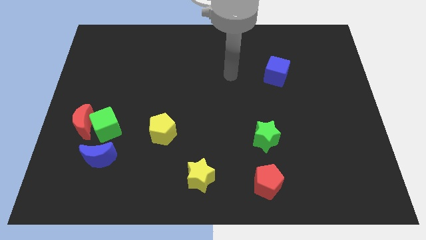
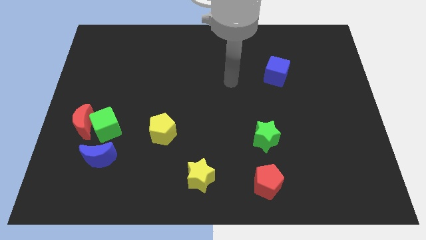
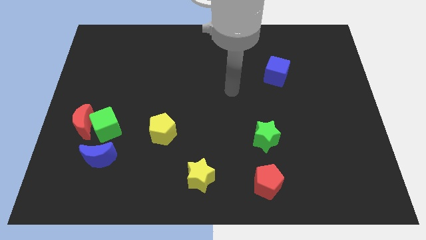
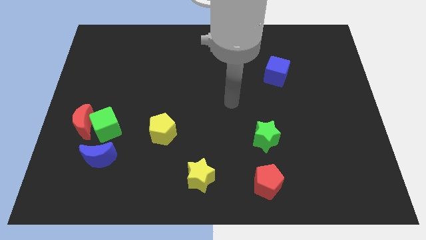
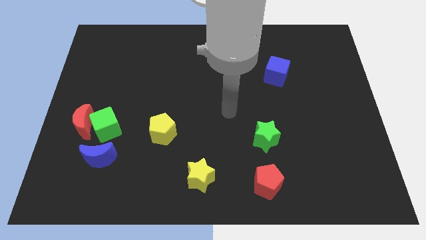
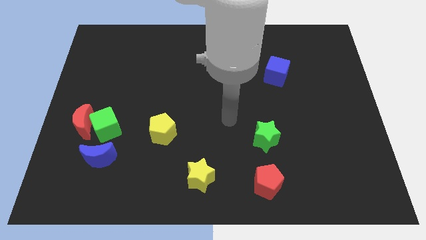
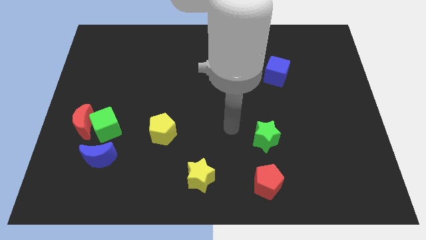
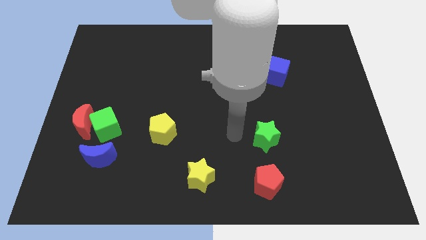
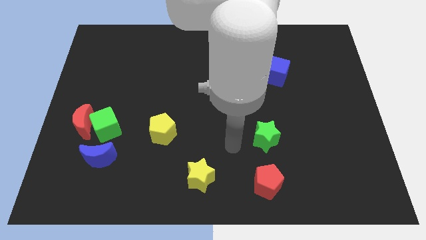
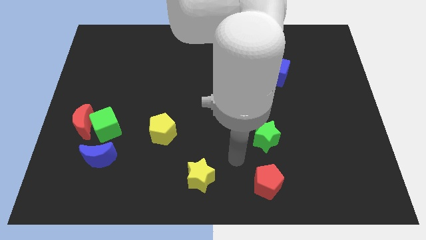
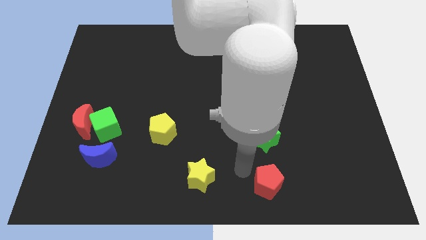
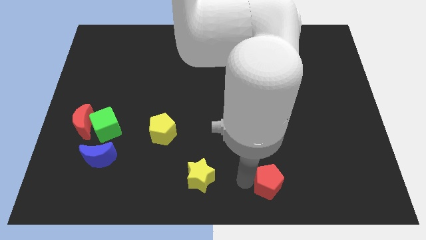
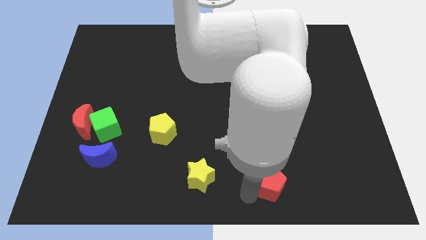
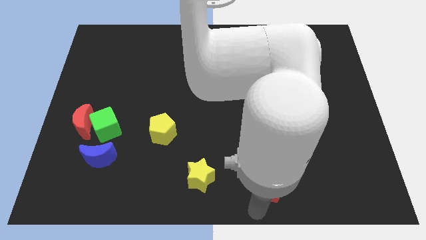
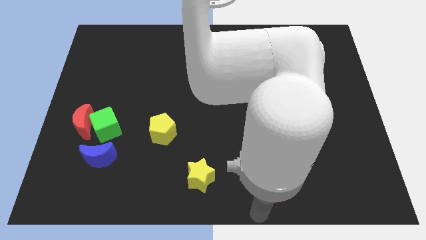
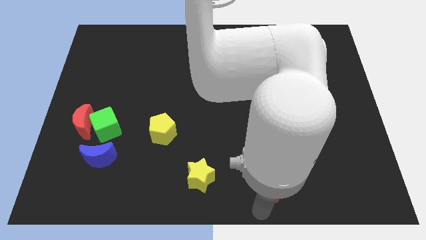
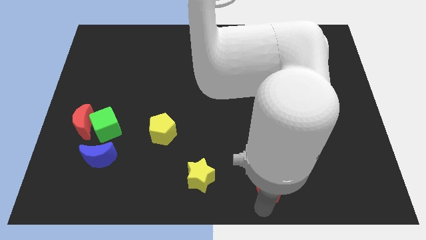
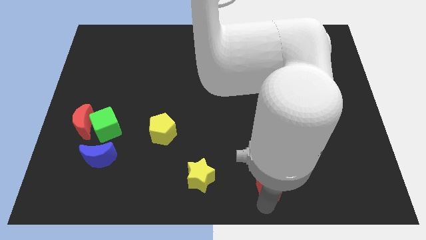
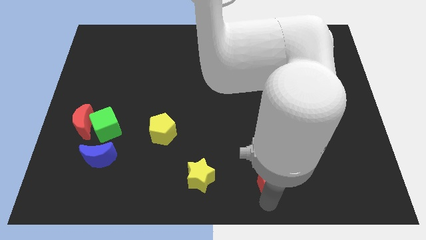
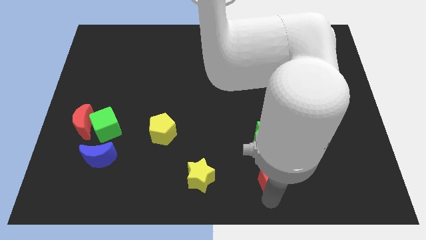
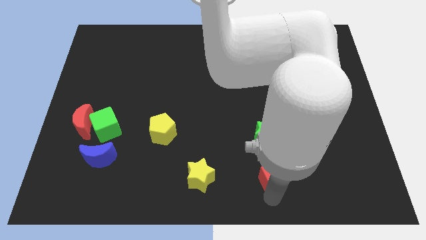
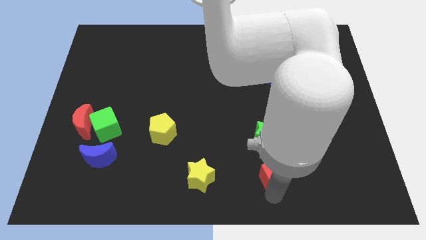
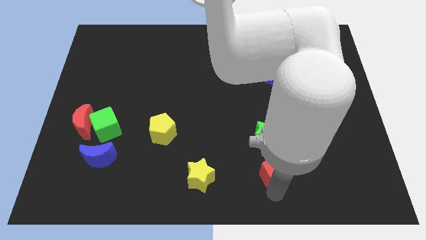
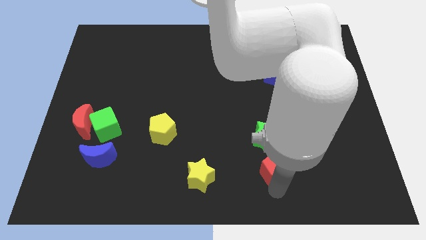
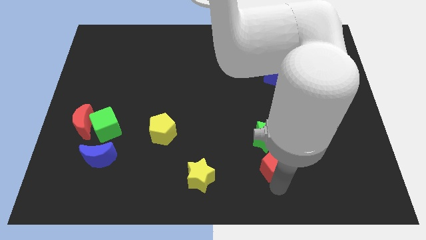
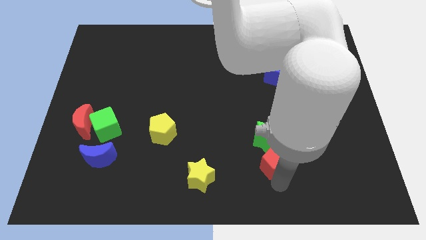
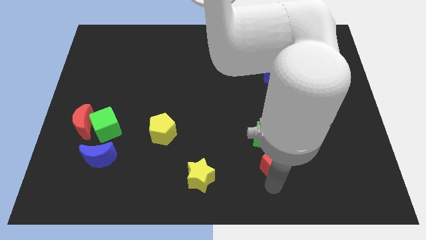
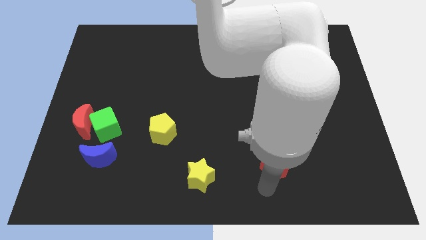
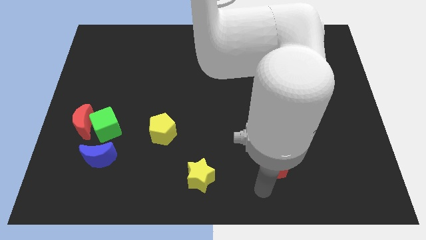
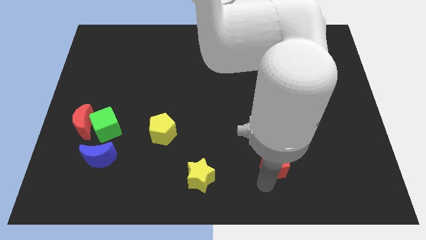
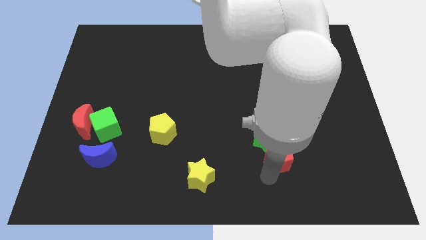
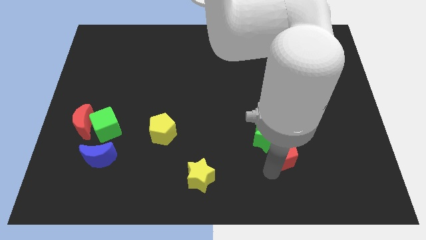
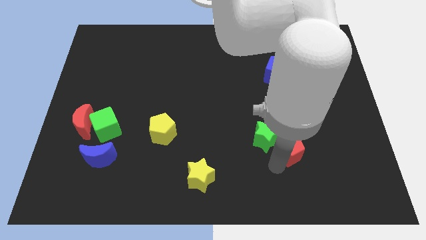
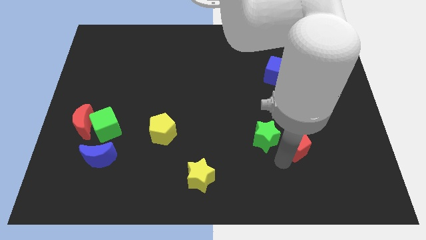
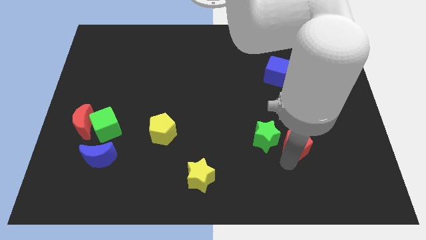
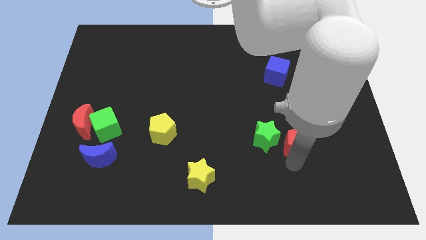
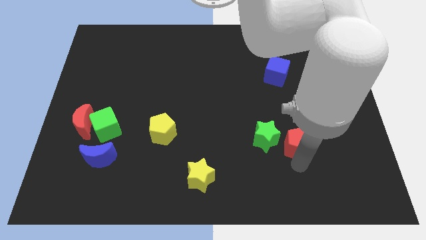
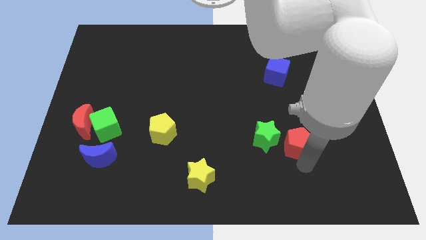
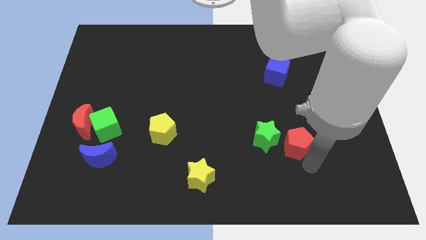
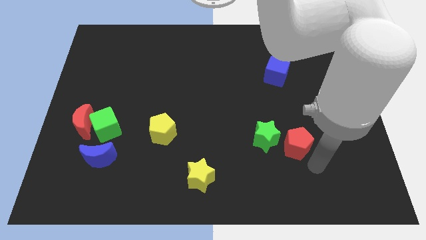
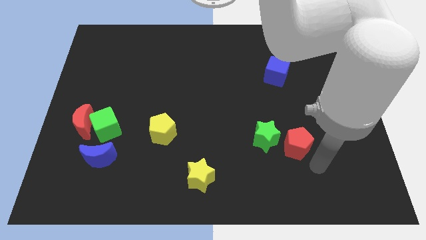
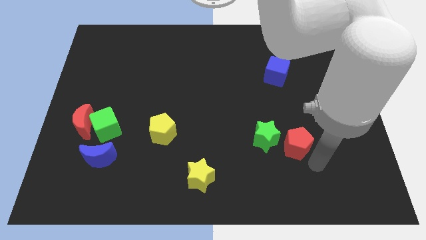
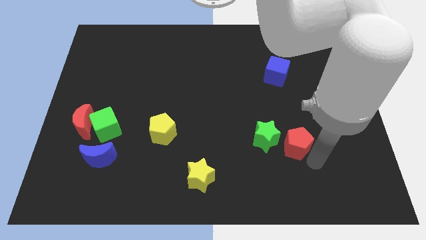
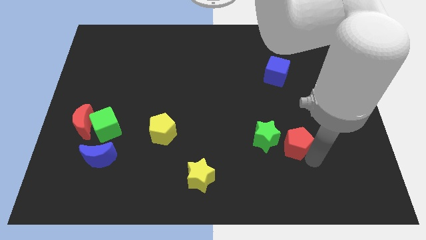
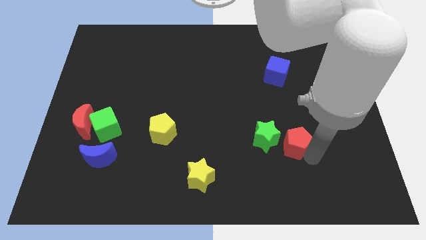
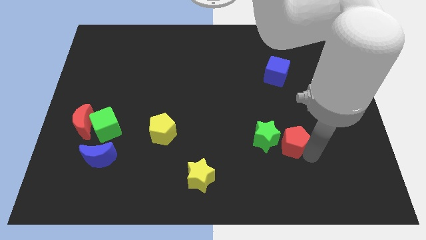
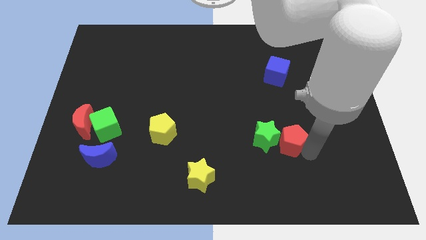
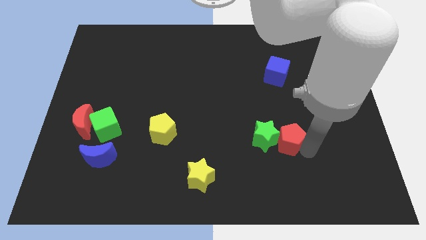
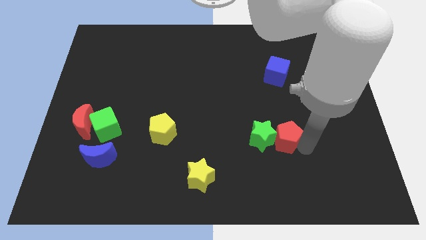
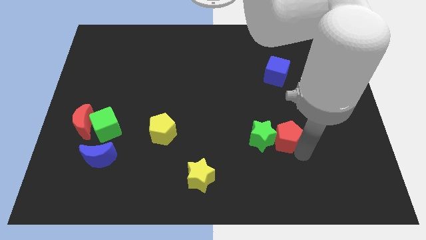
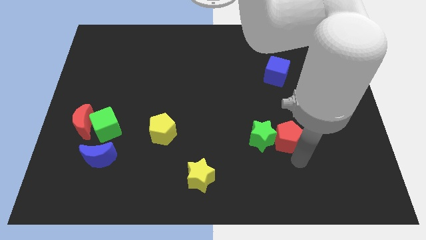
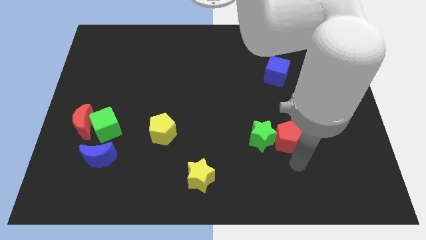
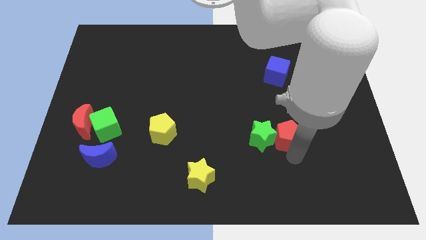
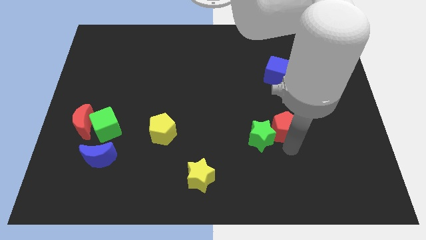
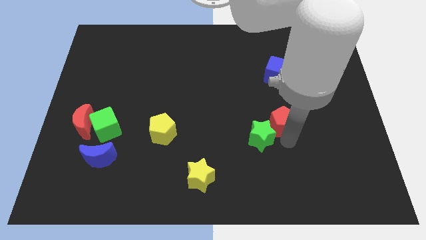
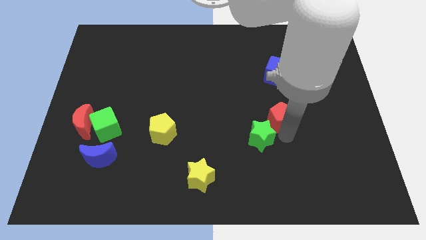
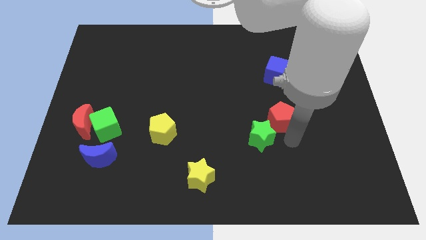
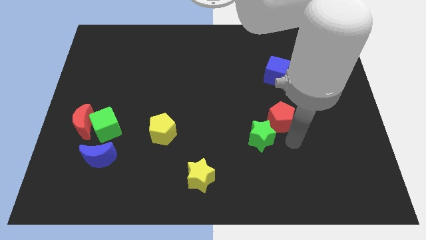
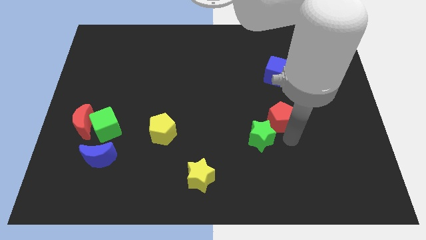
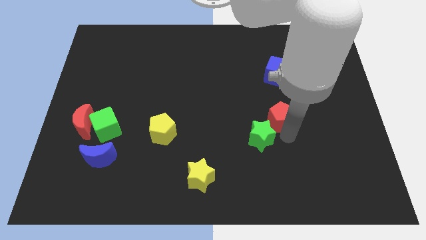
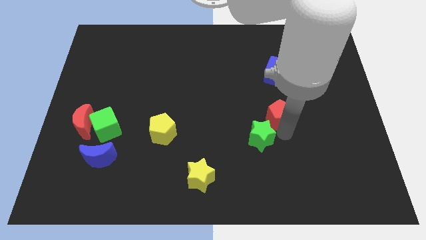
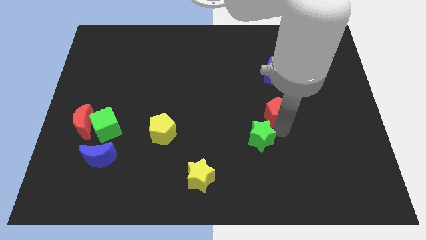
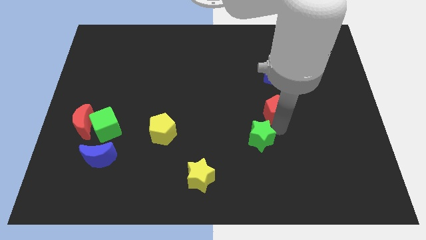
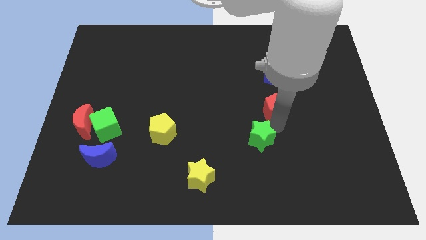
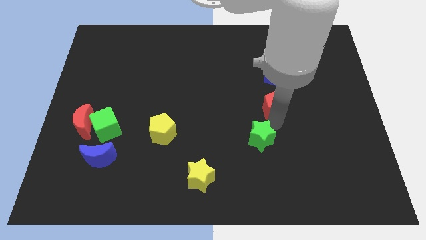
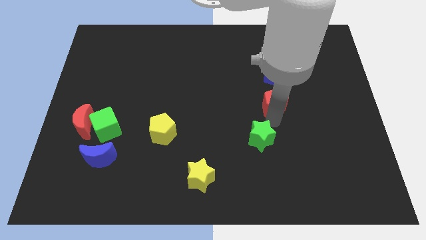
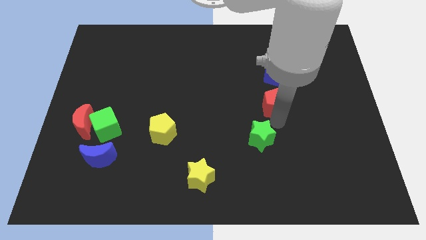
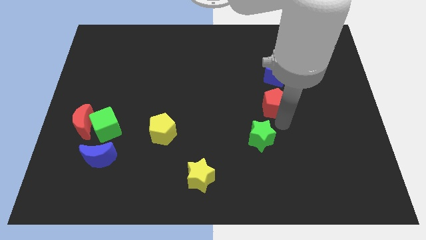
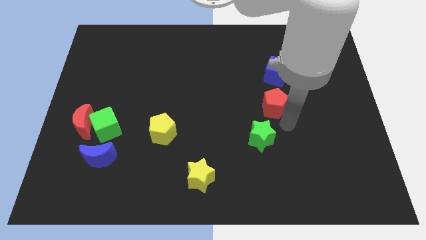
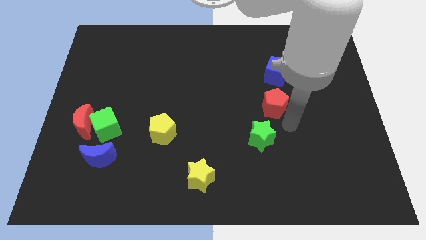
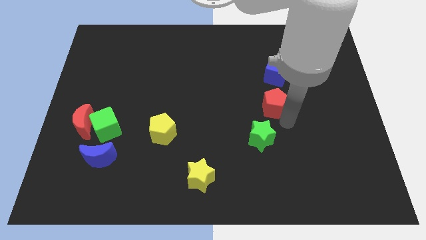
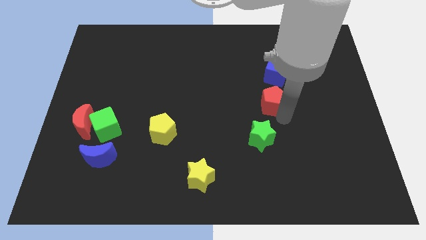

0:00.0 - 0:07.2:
slide the red pentagon up

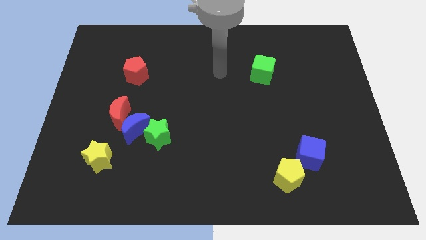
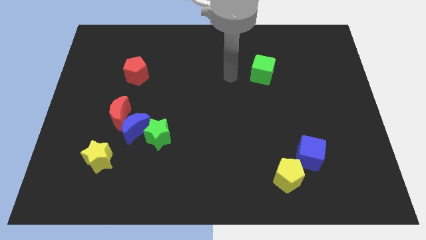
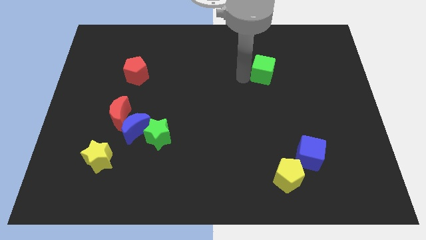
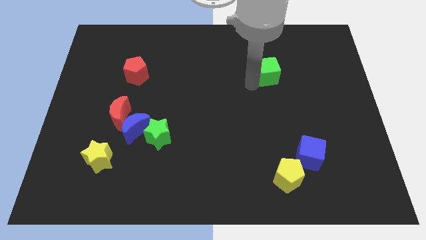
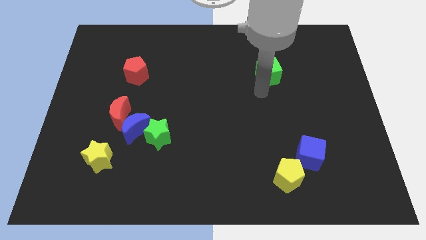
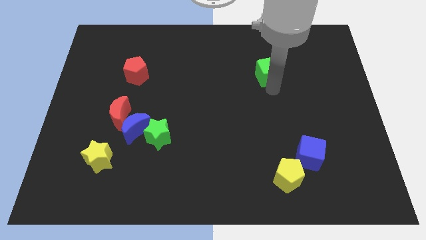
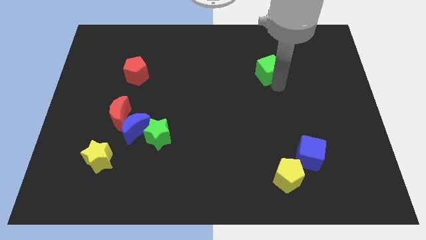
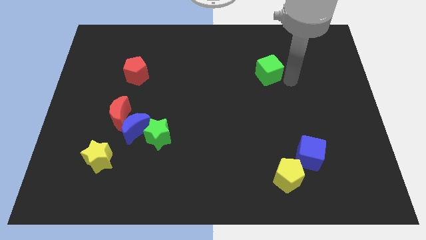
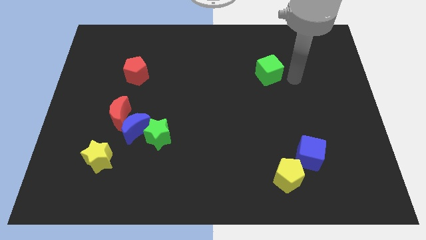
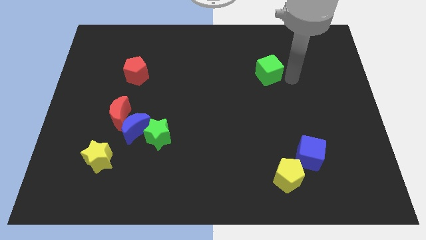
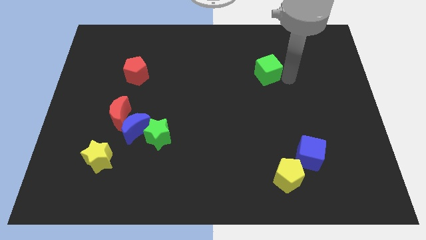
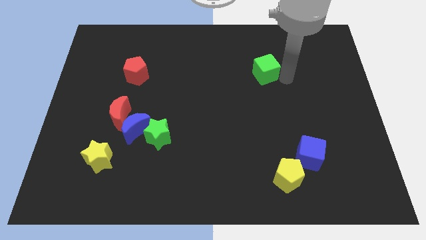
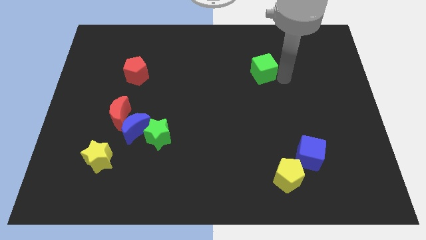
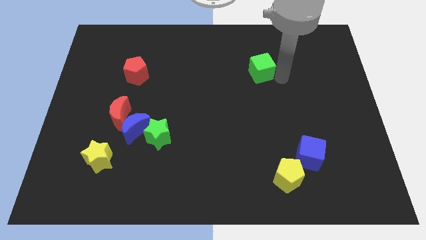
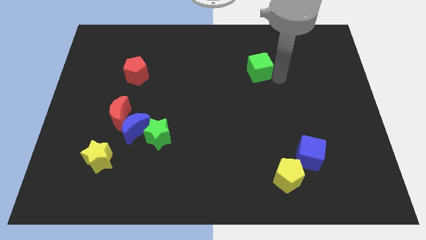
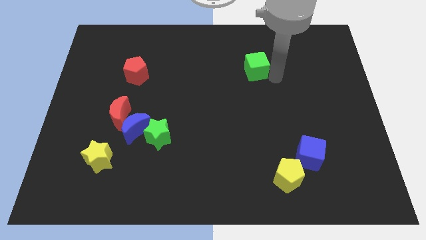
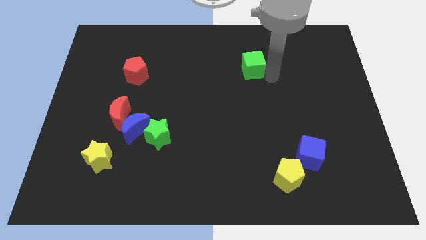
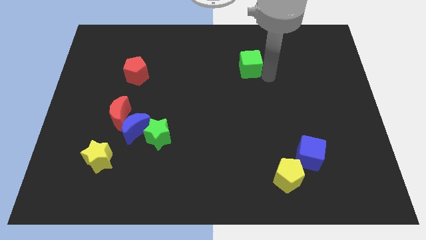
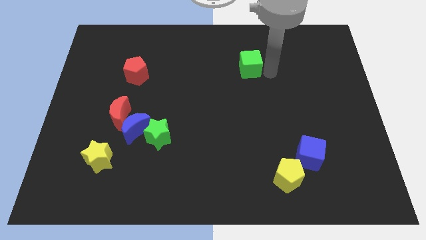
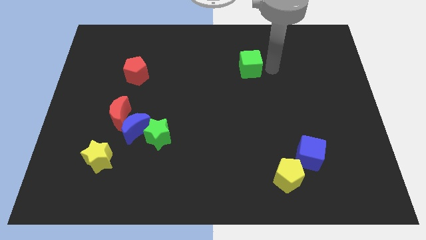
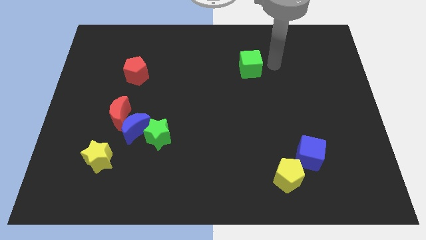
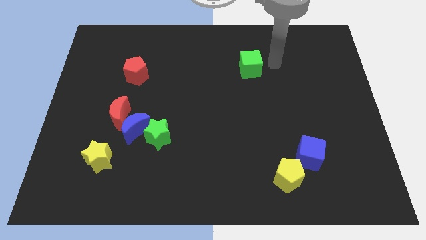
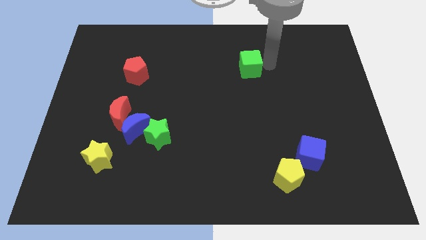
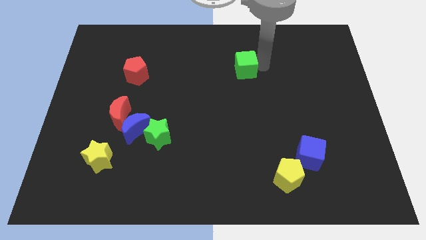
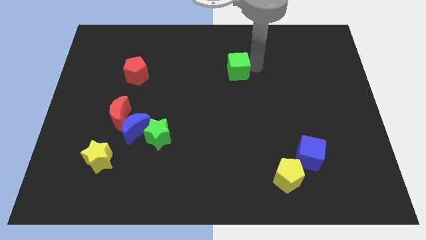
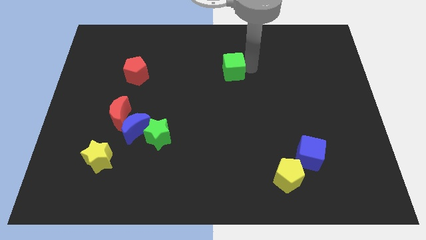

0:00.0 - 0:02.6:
move the green cube left a little bit
